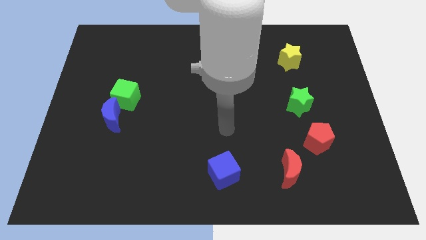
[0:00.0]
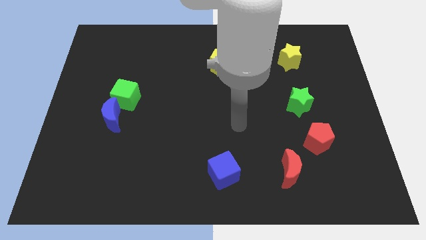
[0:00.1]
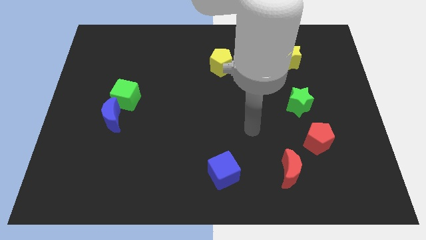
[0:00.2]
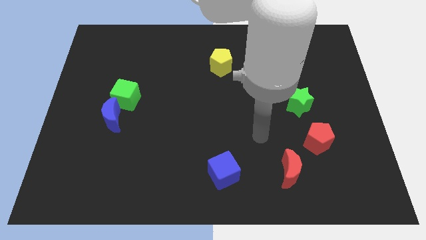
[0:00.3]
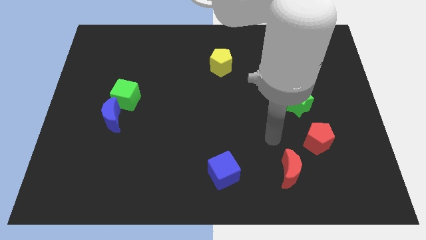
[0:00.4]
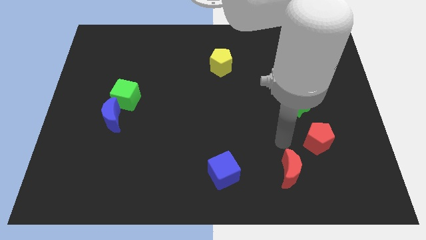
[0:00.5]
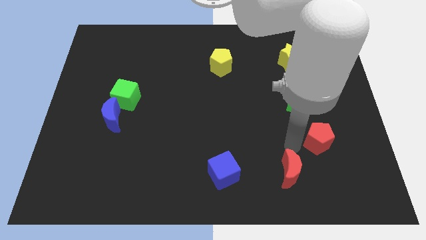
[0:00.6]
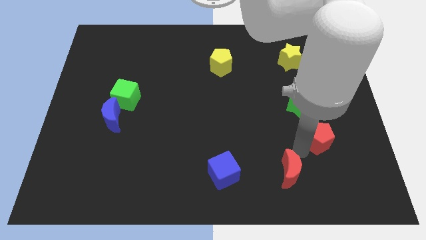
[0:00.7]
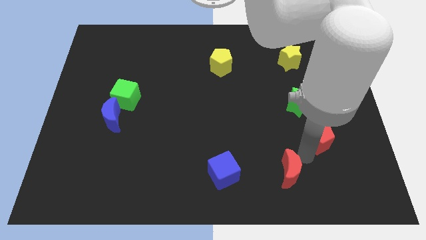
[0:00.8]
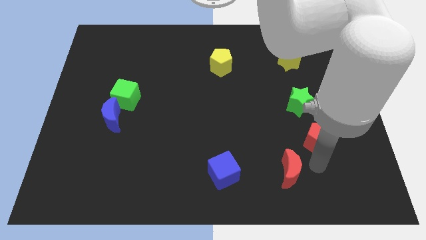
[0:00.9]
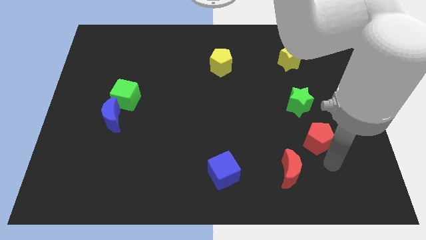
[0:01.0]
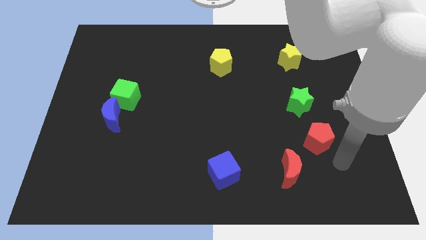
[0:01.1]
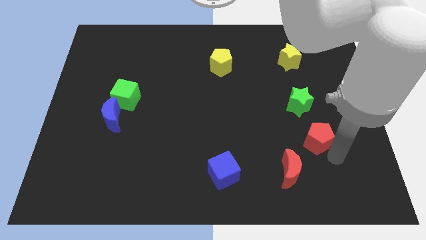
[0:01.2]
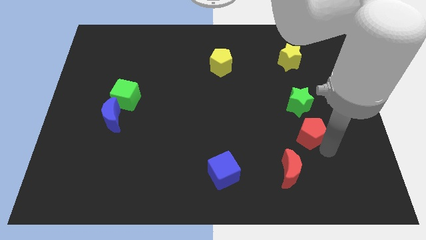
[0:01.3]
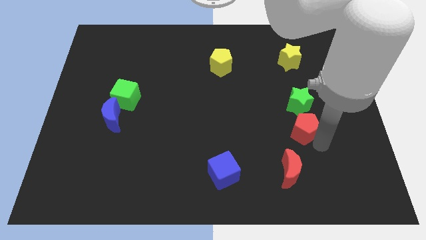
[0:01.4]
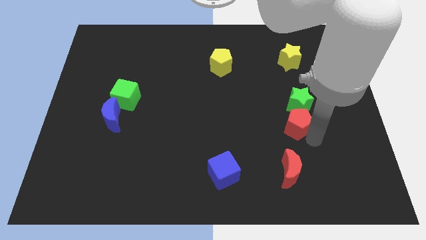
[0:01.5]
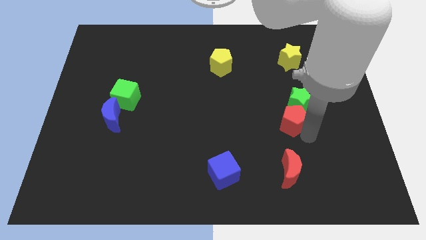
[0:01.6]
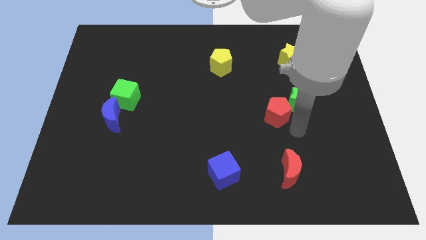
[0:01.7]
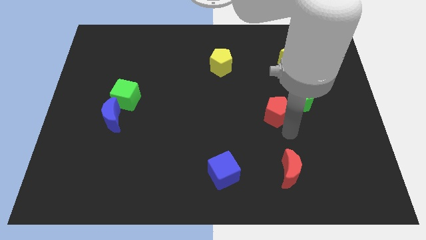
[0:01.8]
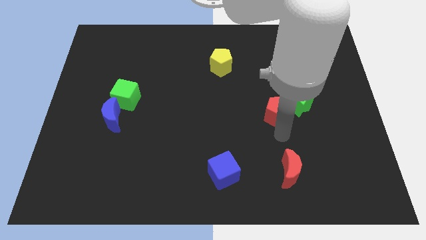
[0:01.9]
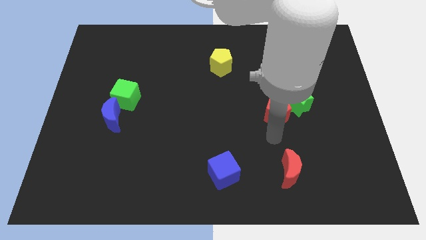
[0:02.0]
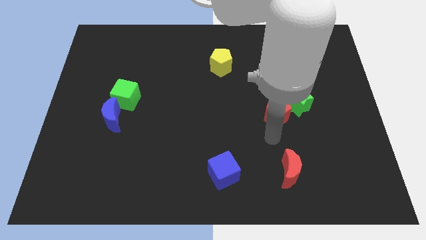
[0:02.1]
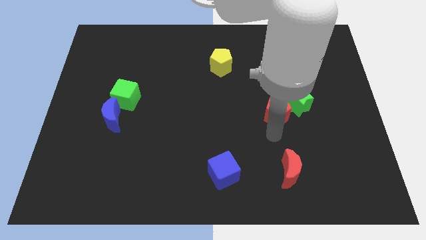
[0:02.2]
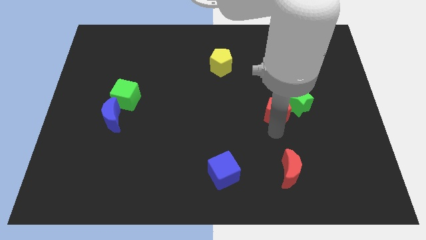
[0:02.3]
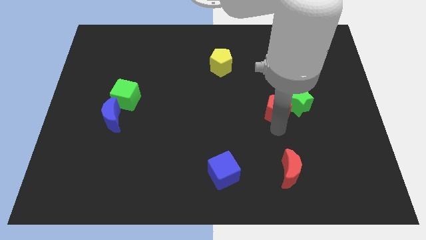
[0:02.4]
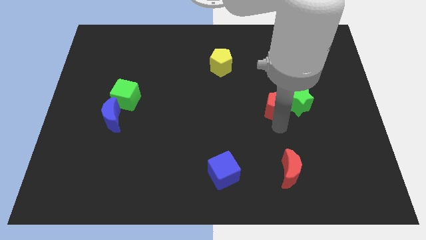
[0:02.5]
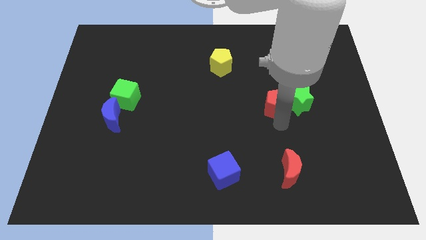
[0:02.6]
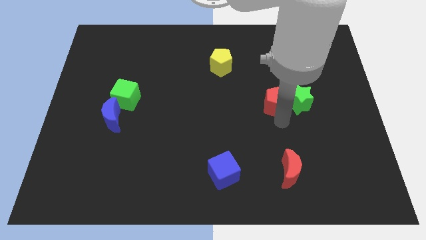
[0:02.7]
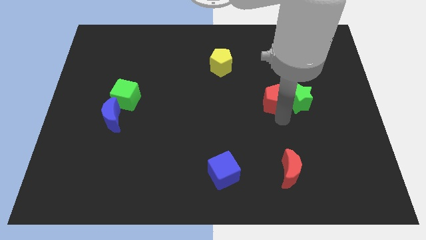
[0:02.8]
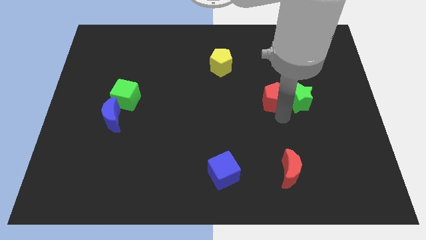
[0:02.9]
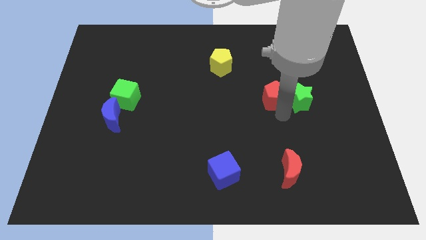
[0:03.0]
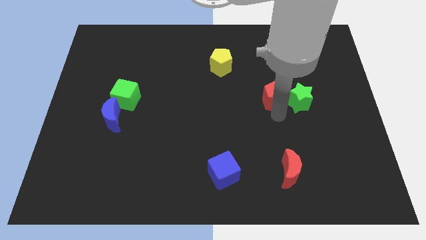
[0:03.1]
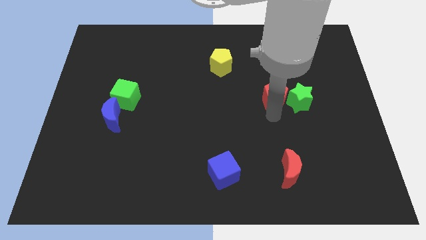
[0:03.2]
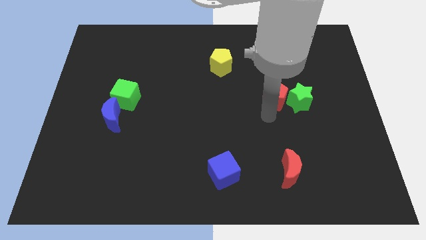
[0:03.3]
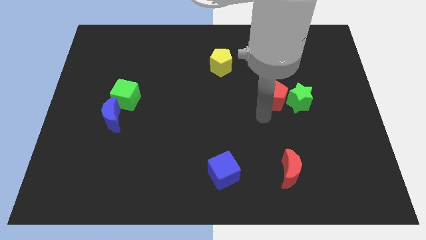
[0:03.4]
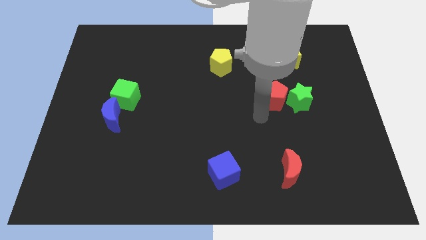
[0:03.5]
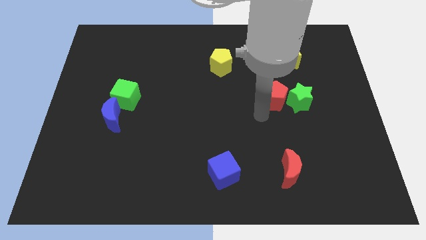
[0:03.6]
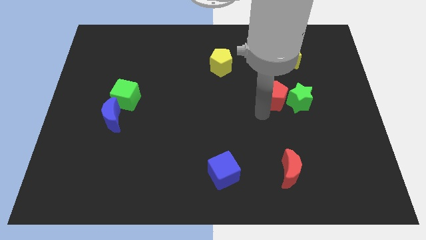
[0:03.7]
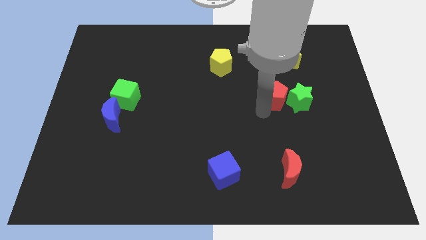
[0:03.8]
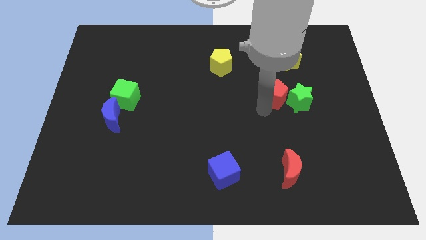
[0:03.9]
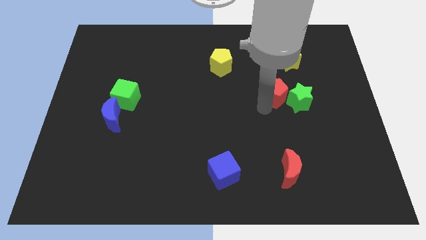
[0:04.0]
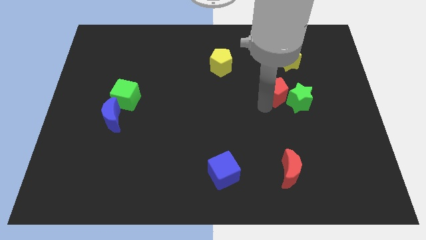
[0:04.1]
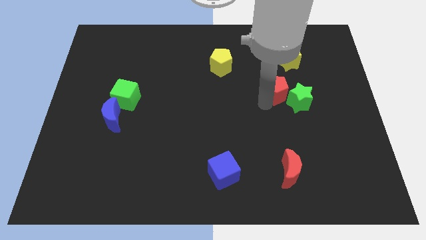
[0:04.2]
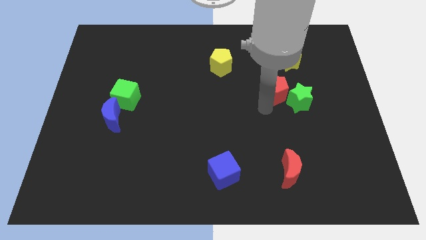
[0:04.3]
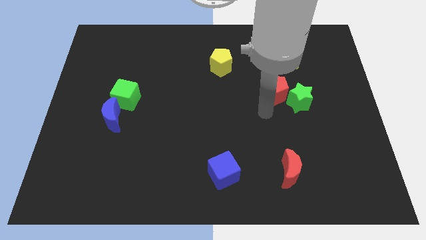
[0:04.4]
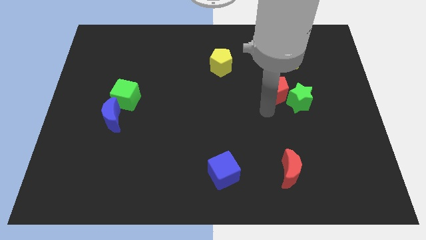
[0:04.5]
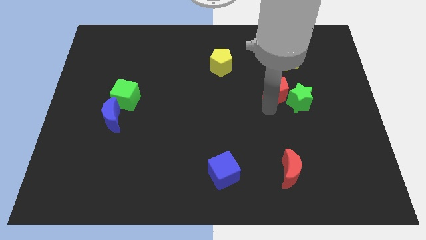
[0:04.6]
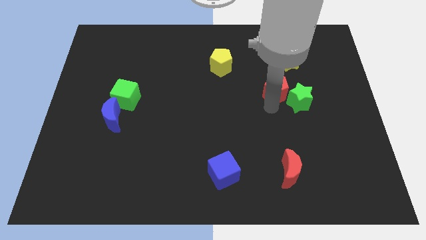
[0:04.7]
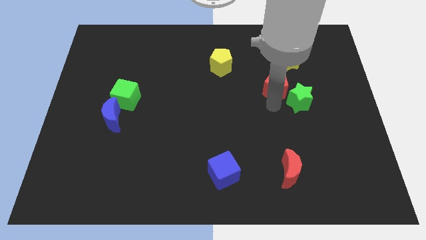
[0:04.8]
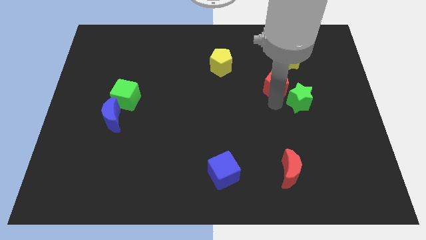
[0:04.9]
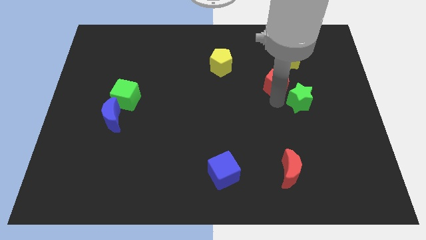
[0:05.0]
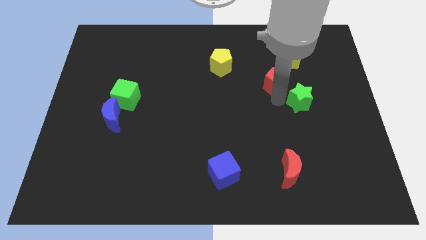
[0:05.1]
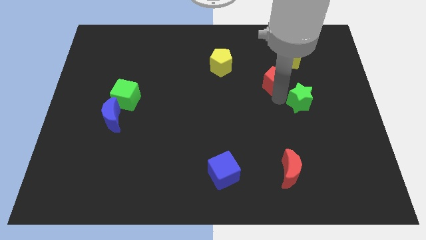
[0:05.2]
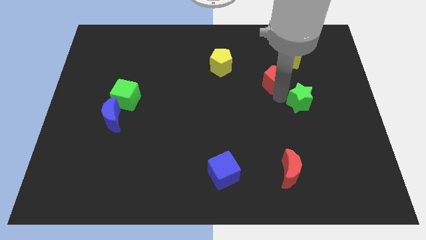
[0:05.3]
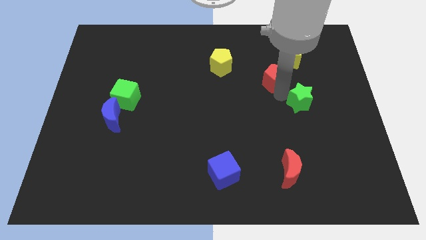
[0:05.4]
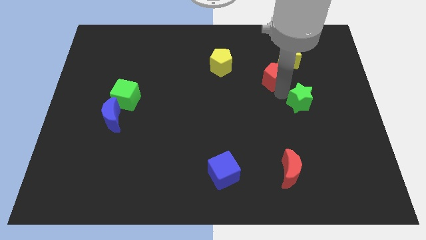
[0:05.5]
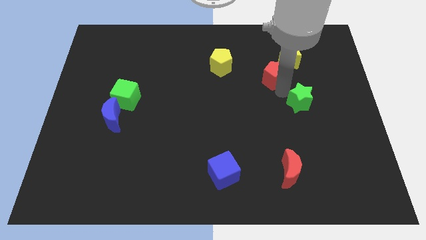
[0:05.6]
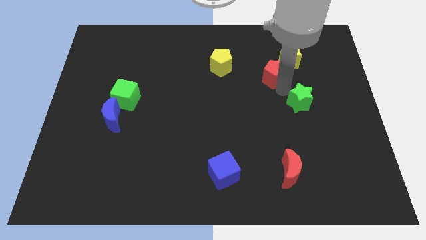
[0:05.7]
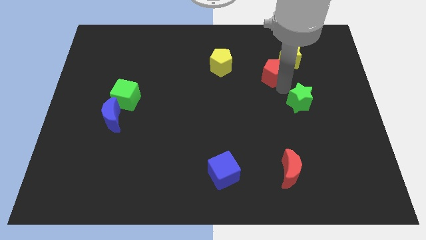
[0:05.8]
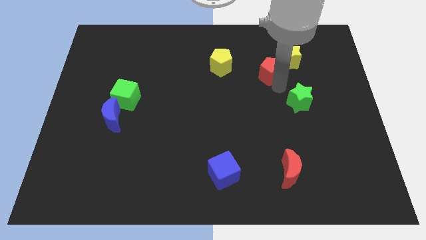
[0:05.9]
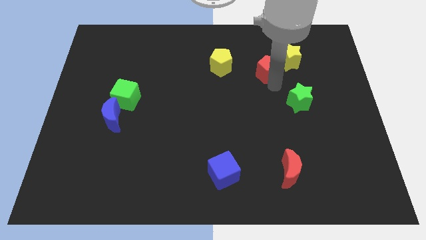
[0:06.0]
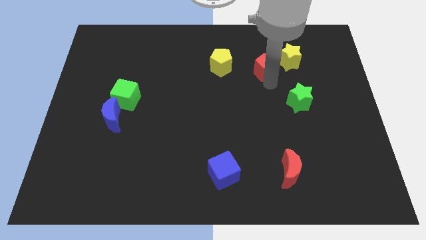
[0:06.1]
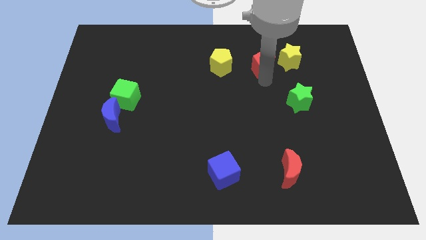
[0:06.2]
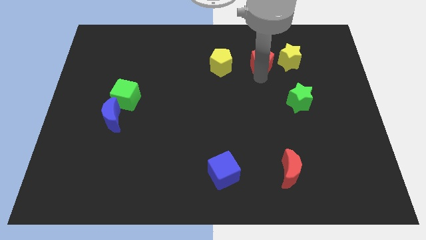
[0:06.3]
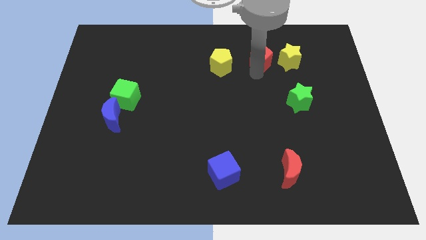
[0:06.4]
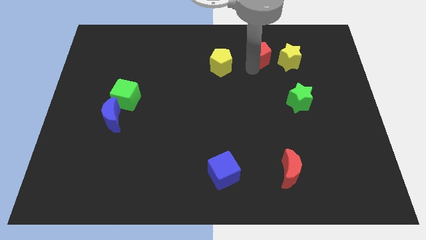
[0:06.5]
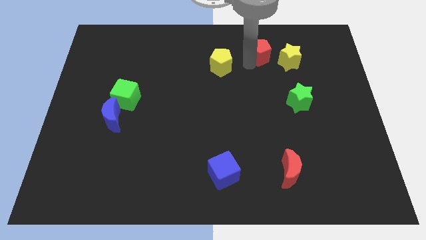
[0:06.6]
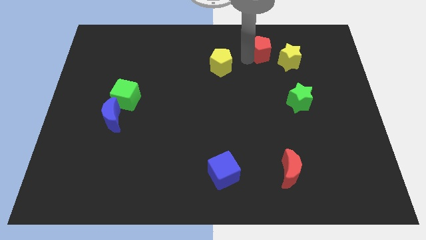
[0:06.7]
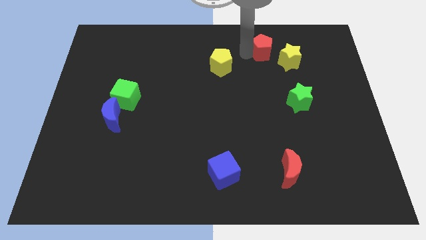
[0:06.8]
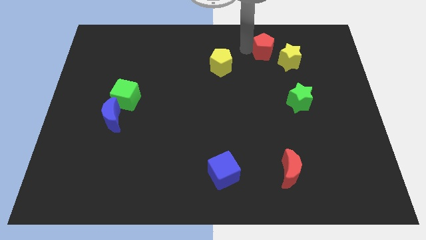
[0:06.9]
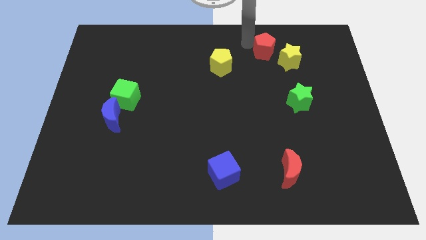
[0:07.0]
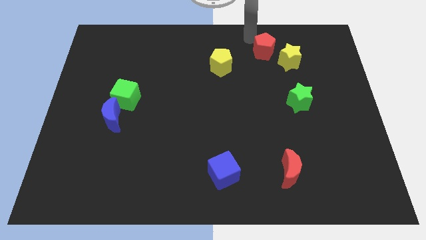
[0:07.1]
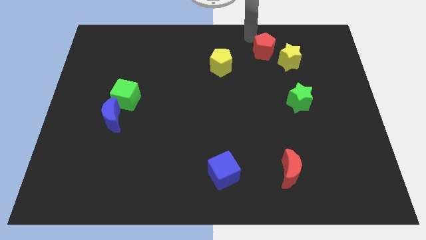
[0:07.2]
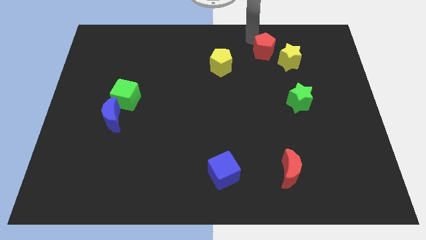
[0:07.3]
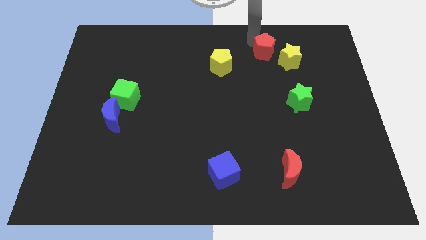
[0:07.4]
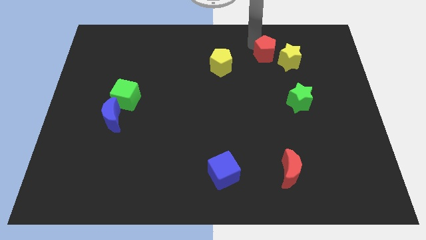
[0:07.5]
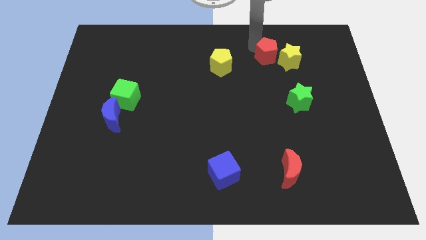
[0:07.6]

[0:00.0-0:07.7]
push the red pentagon to the yellow star

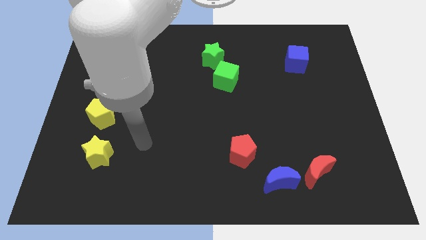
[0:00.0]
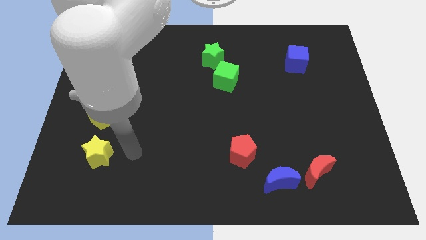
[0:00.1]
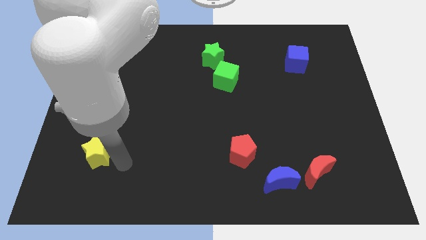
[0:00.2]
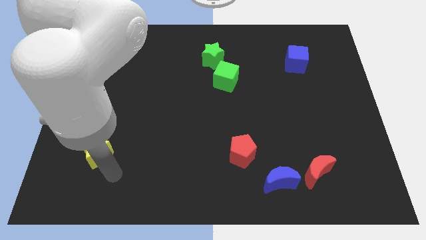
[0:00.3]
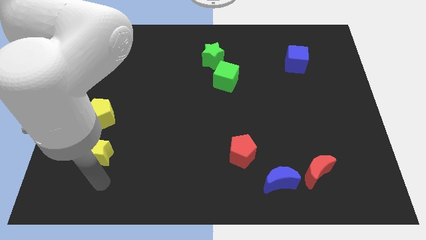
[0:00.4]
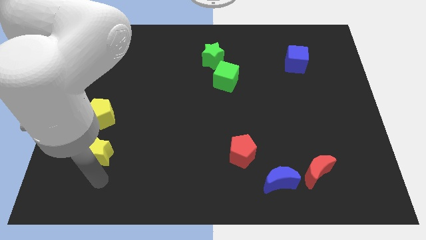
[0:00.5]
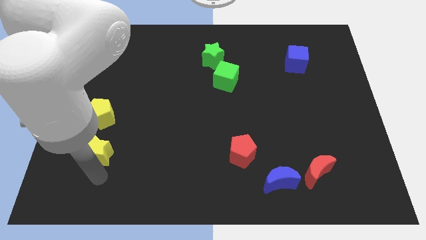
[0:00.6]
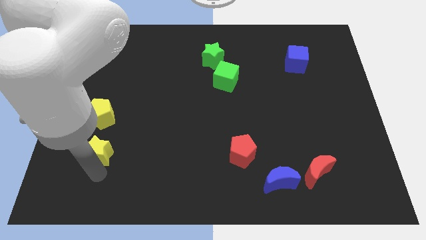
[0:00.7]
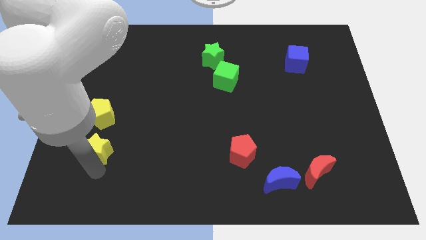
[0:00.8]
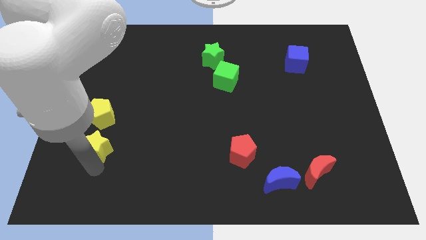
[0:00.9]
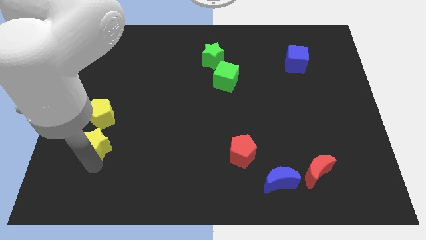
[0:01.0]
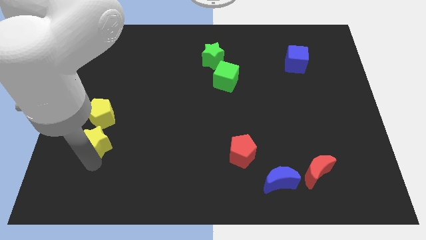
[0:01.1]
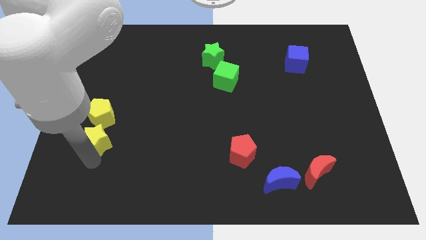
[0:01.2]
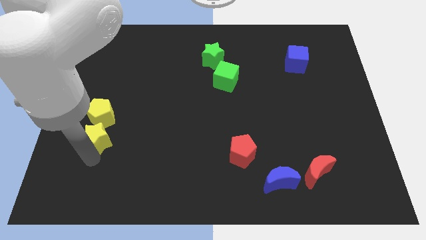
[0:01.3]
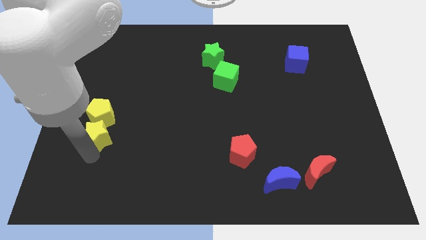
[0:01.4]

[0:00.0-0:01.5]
put the yellow star next to the yellow pentagon
